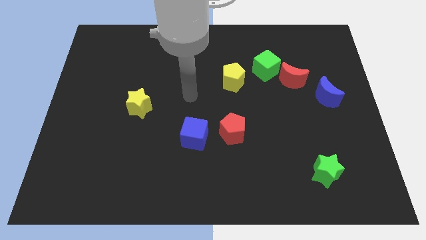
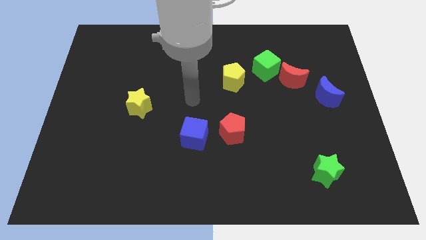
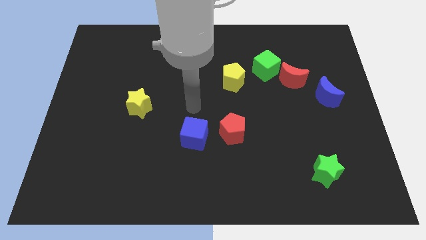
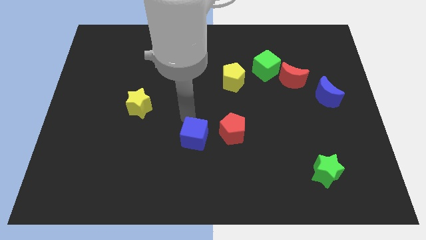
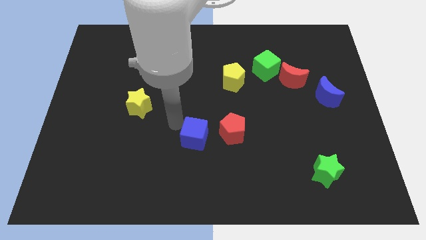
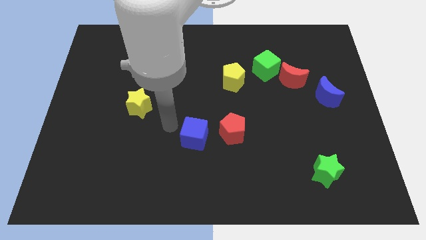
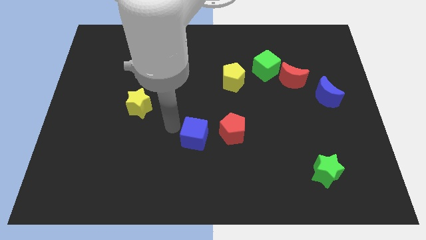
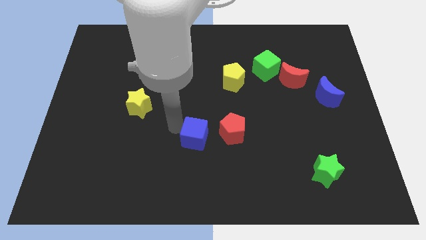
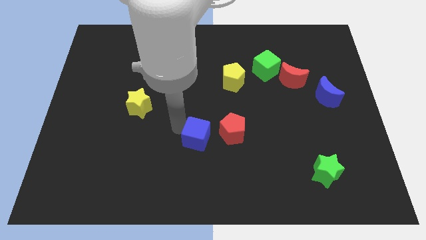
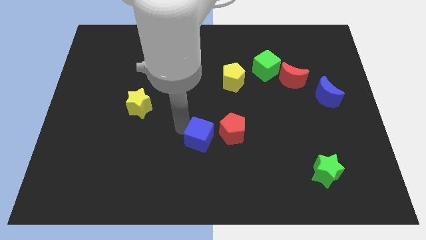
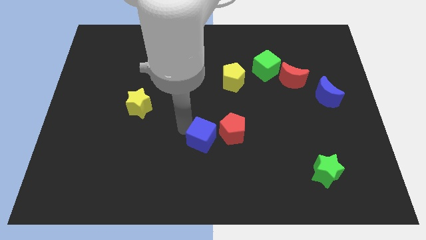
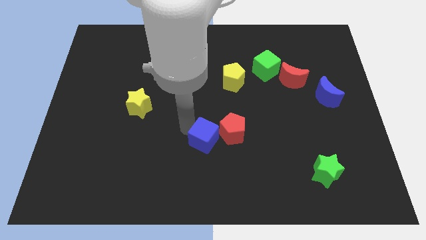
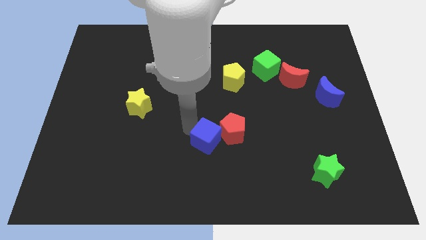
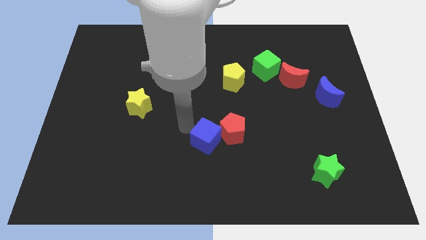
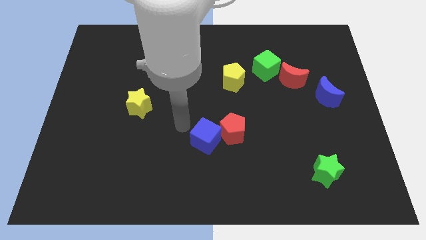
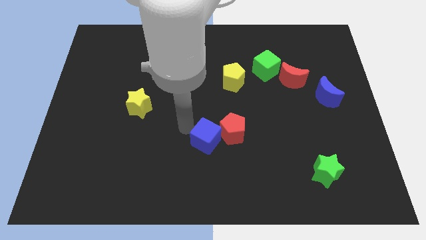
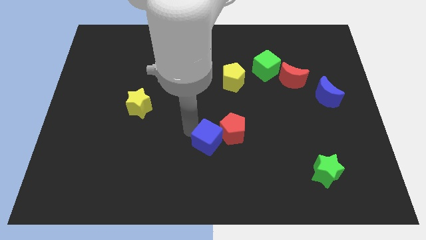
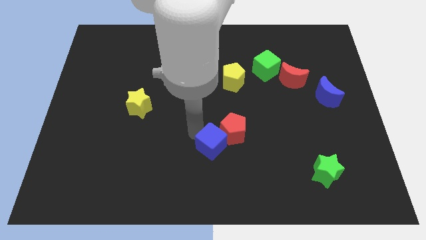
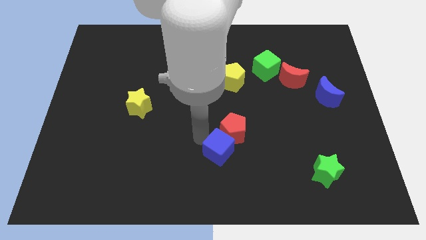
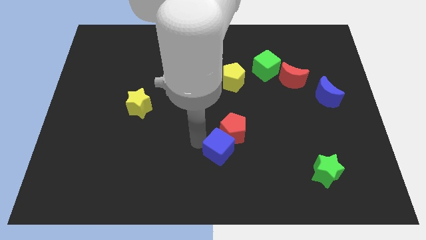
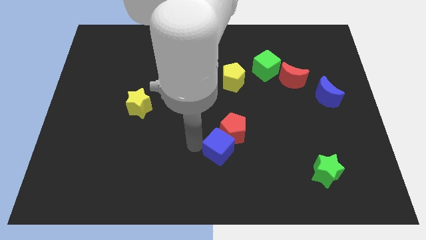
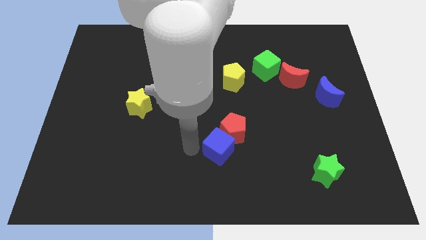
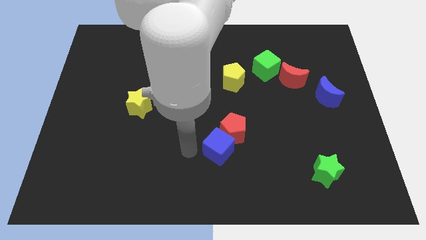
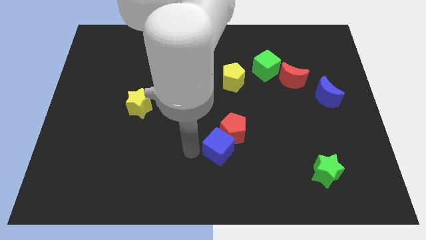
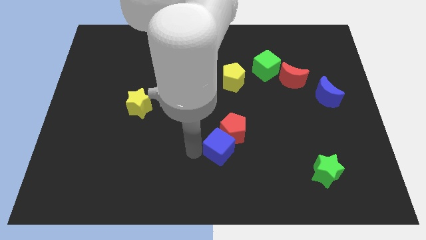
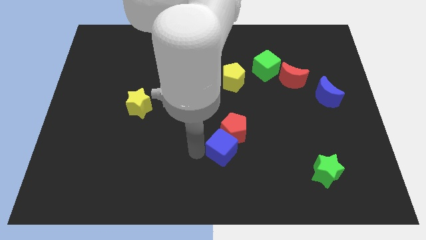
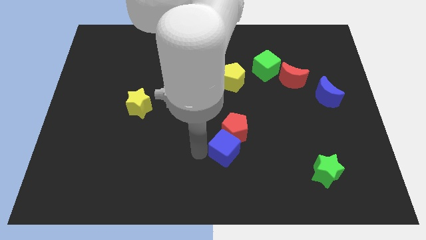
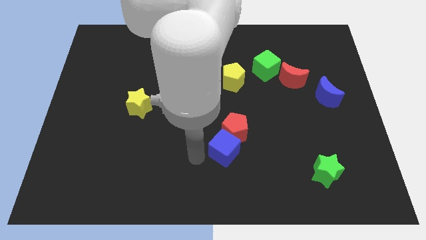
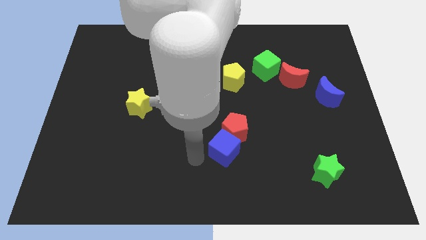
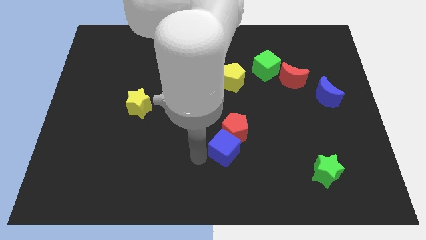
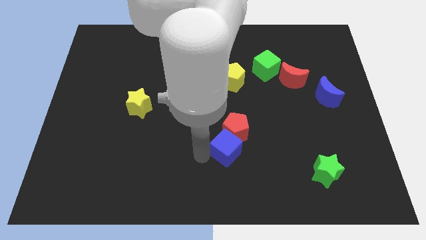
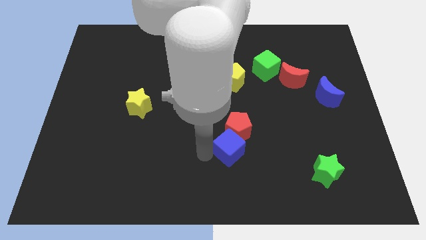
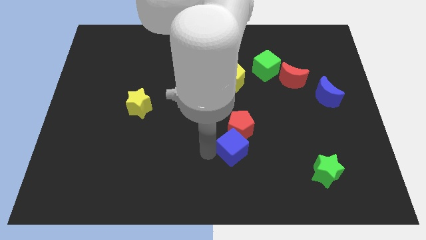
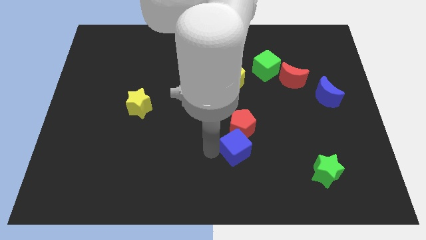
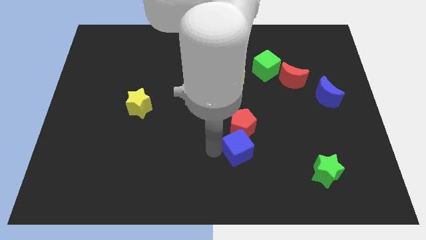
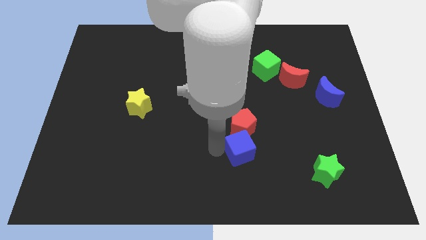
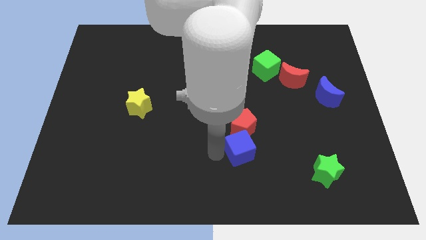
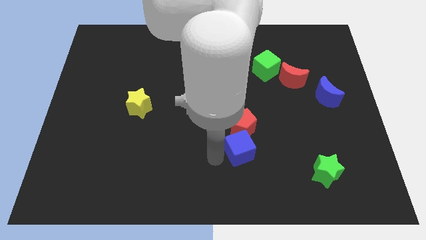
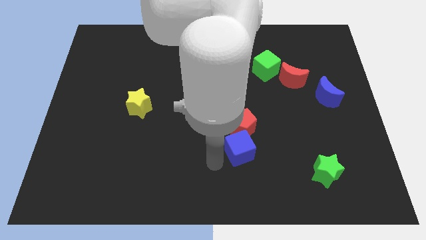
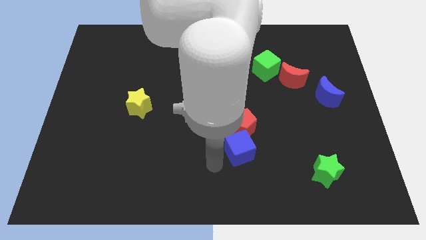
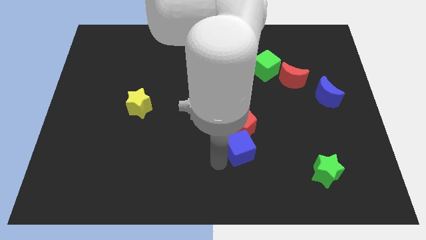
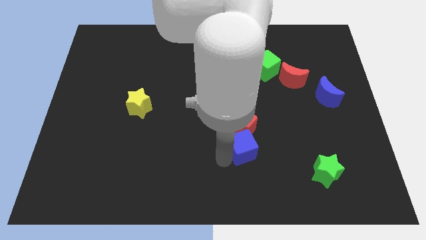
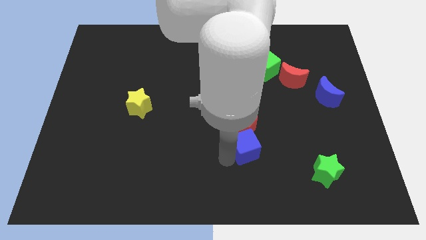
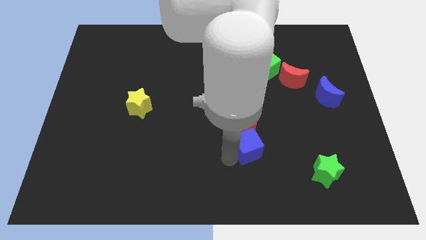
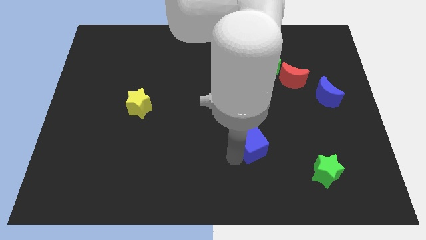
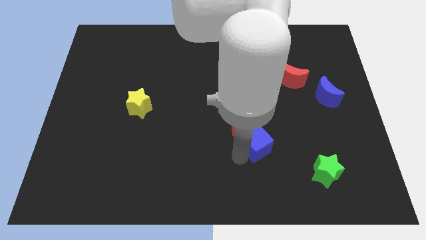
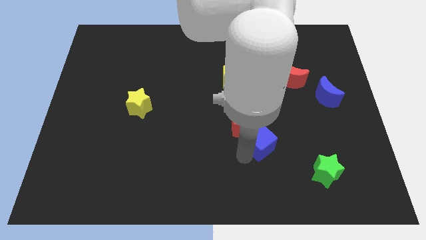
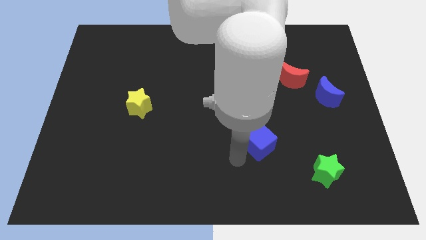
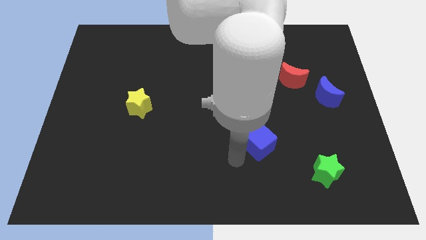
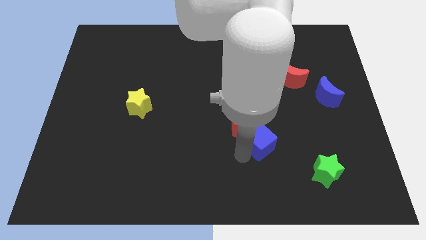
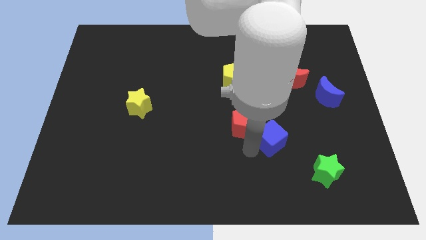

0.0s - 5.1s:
slide the blue cube to the right of the red pentagon

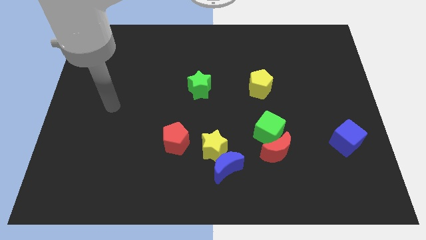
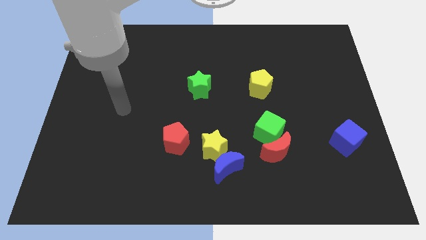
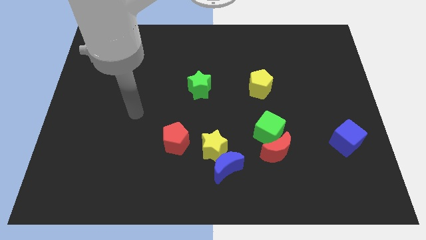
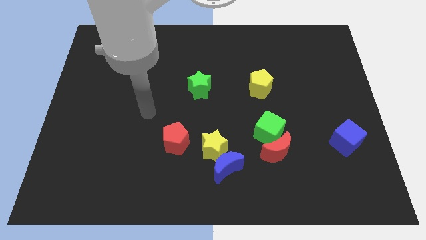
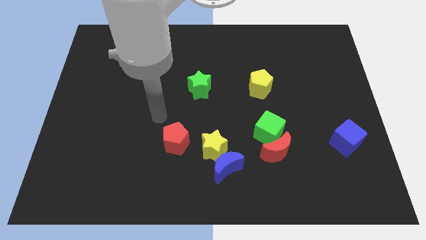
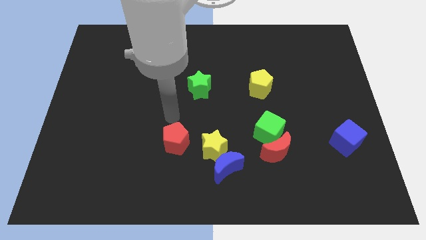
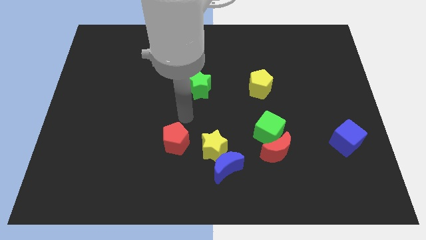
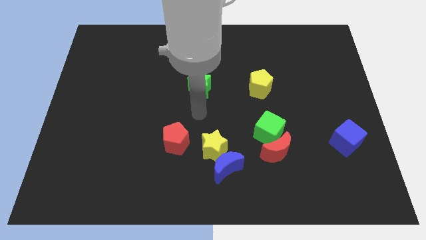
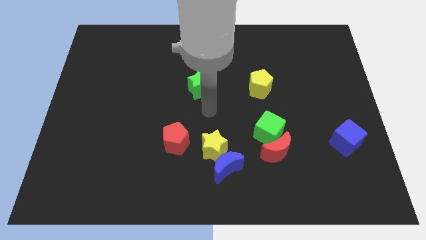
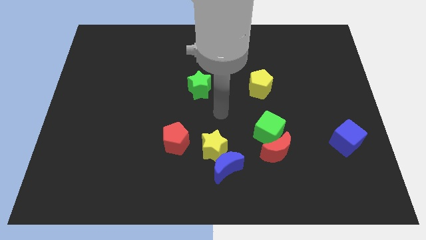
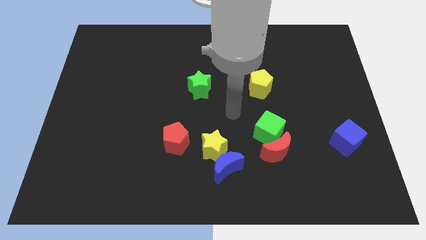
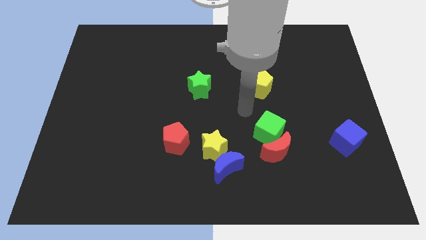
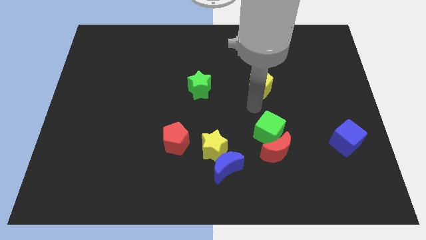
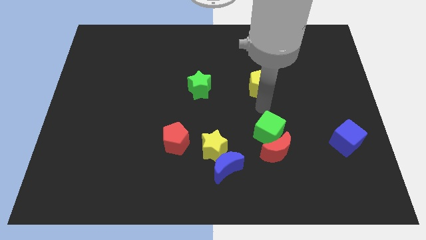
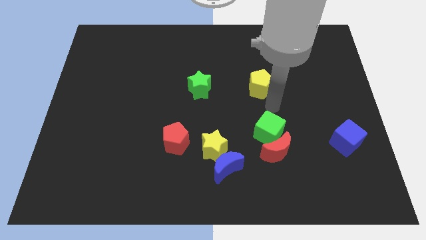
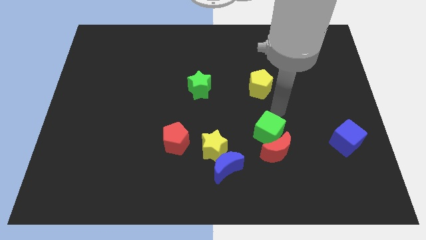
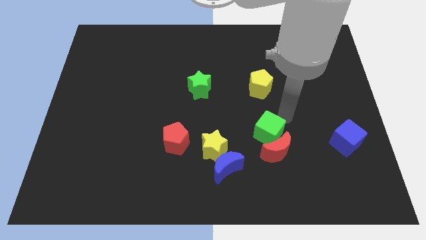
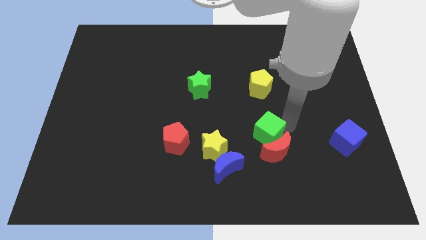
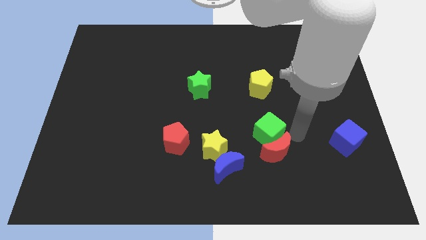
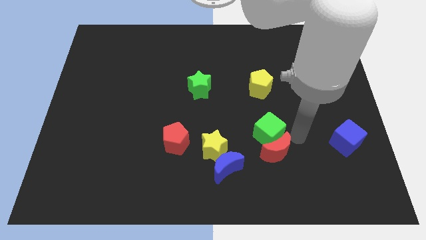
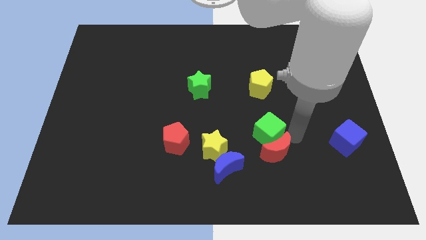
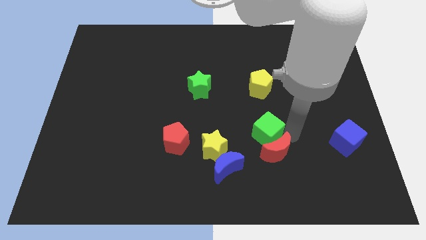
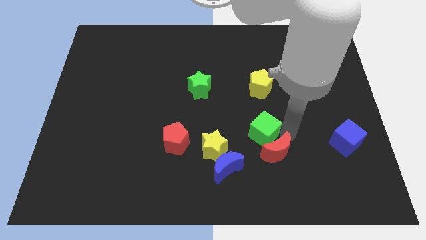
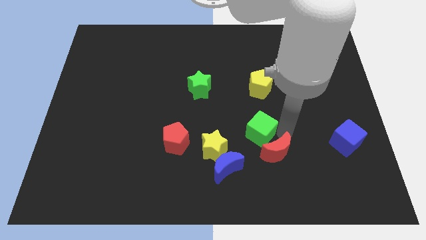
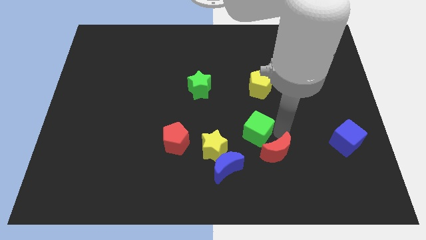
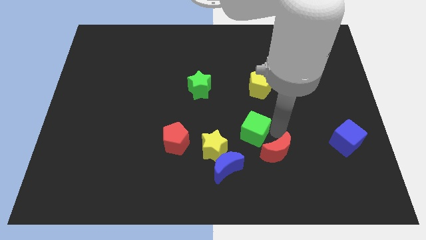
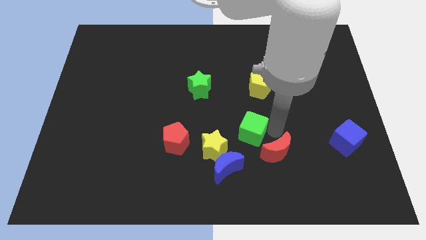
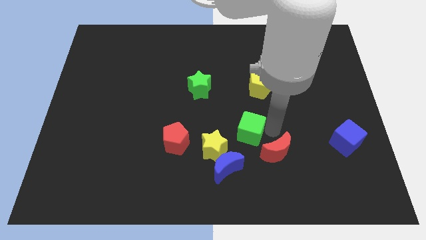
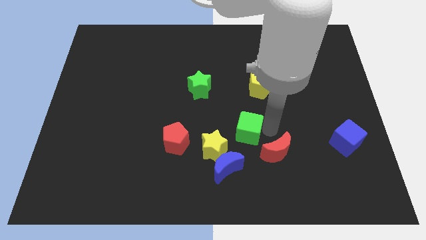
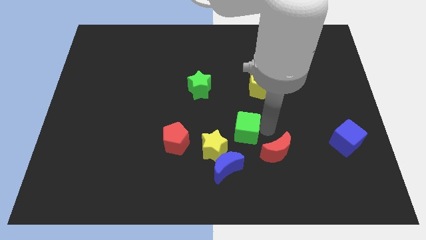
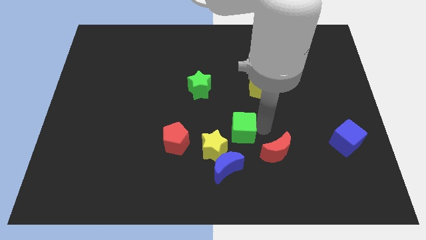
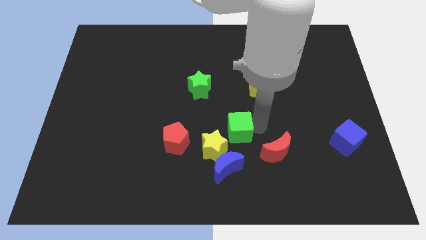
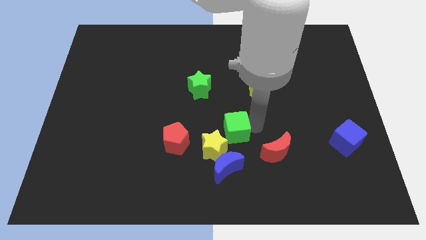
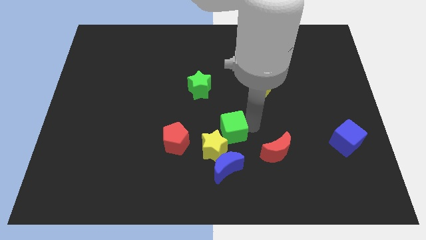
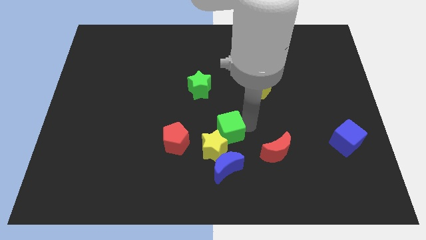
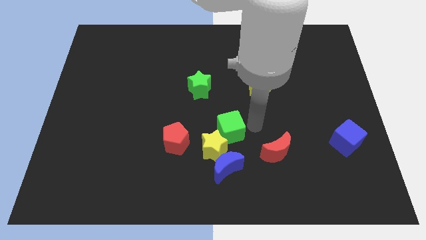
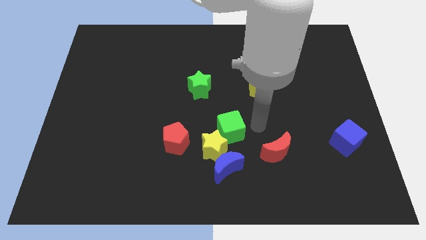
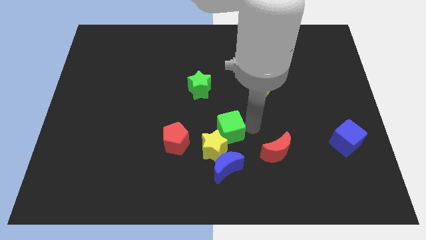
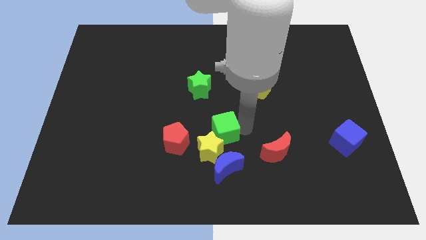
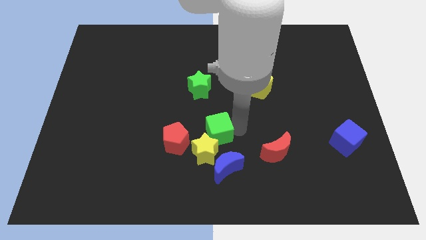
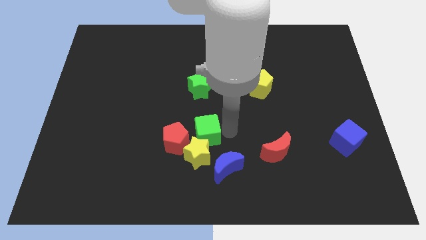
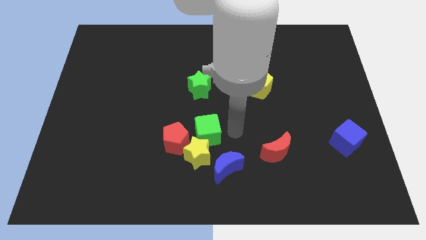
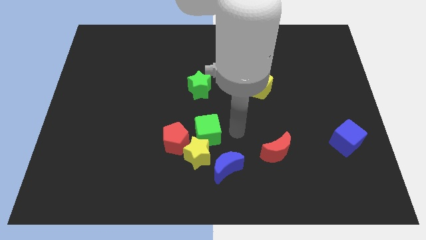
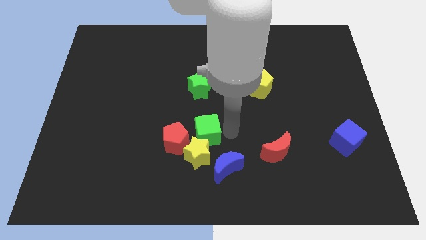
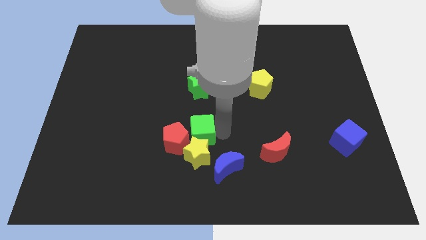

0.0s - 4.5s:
put the green cube to the top left side of the yellow star
